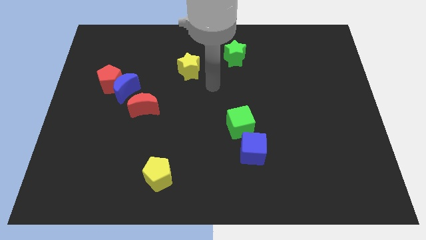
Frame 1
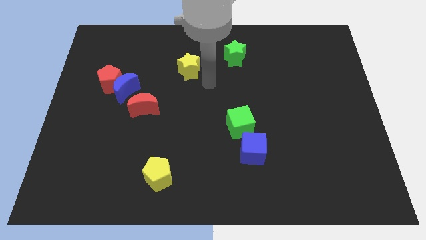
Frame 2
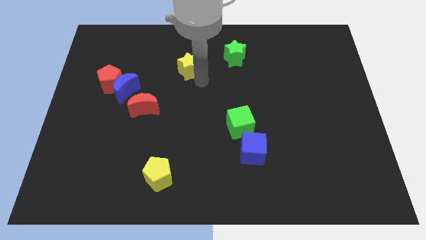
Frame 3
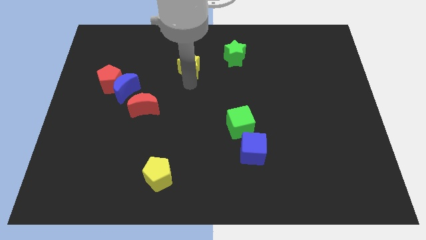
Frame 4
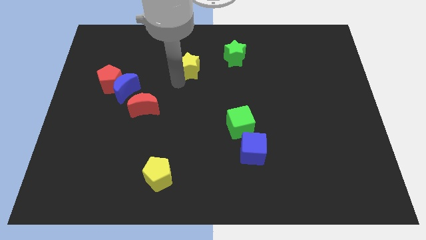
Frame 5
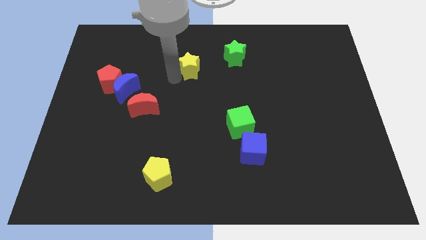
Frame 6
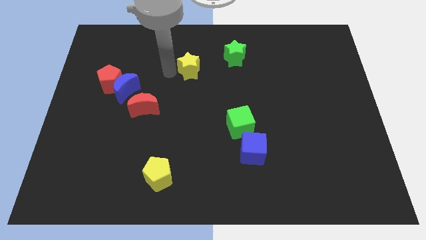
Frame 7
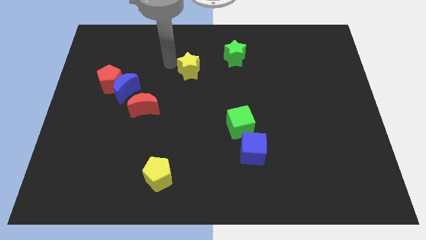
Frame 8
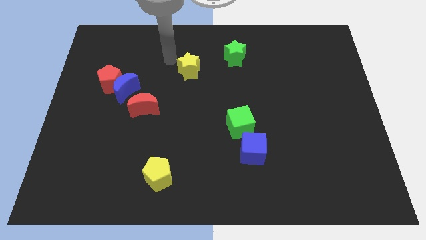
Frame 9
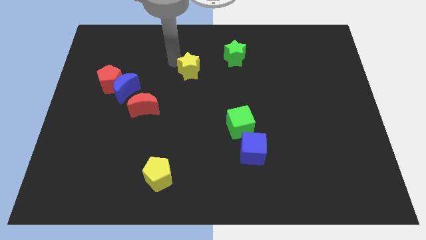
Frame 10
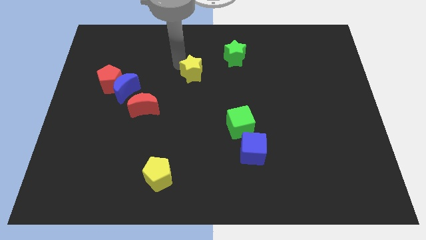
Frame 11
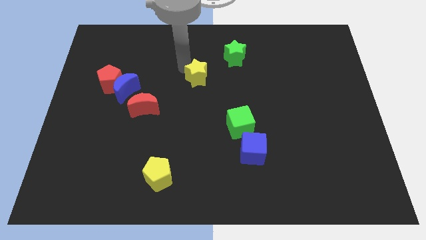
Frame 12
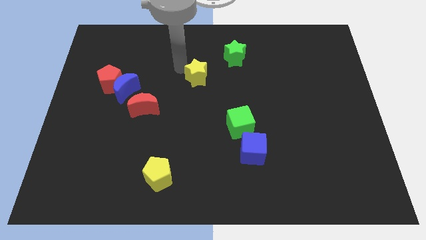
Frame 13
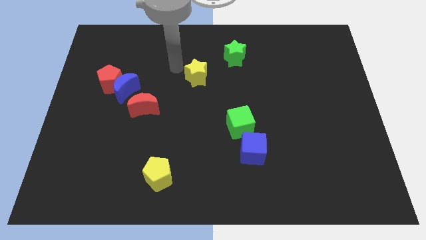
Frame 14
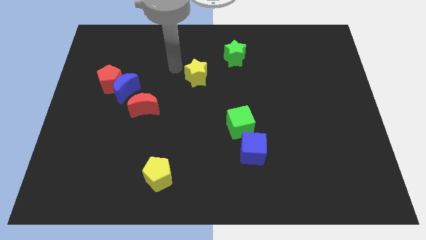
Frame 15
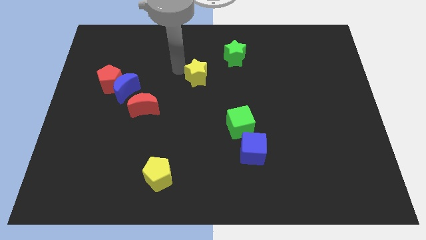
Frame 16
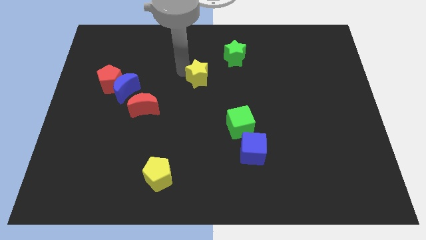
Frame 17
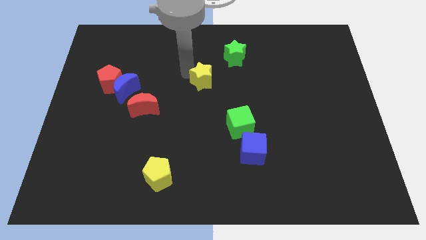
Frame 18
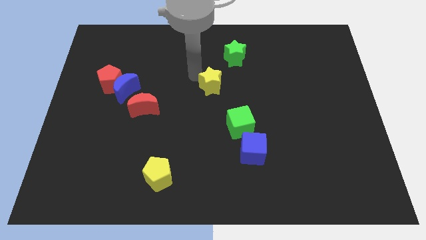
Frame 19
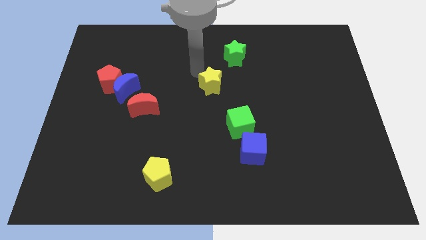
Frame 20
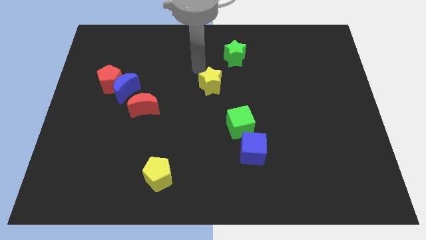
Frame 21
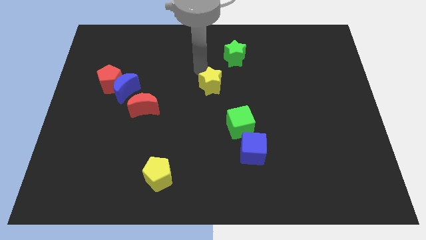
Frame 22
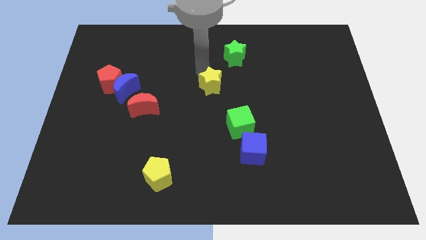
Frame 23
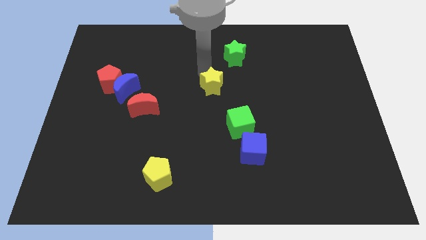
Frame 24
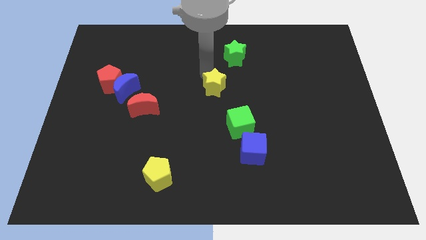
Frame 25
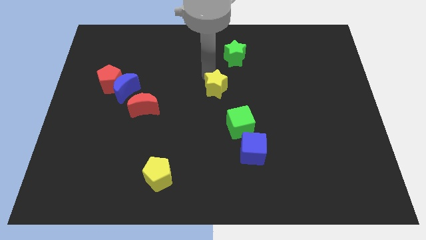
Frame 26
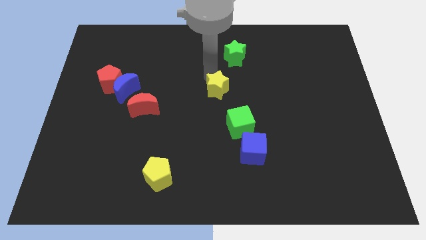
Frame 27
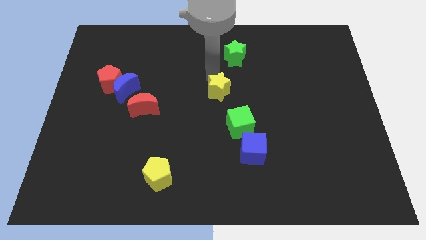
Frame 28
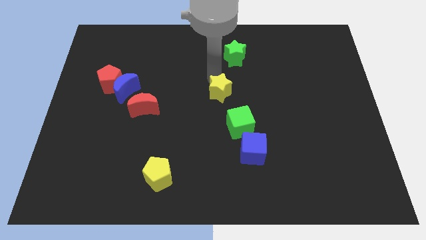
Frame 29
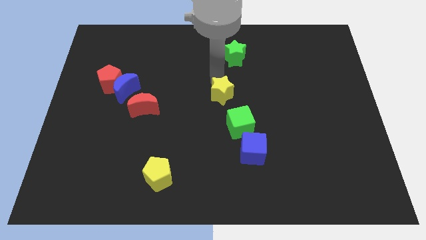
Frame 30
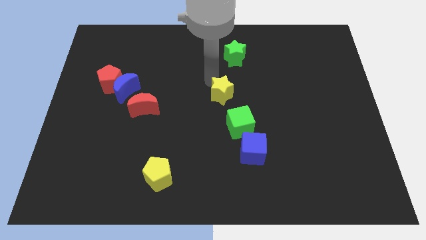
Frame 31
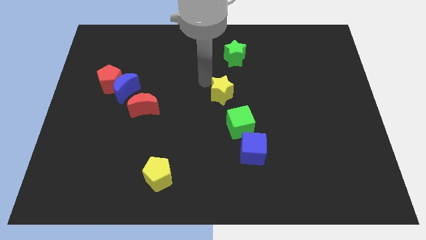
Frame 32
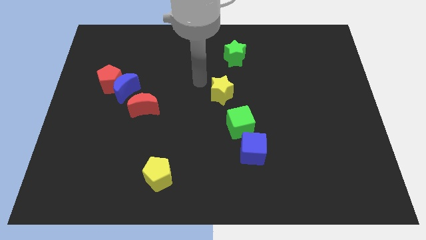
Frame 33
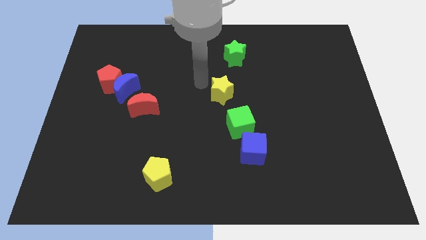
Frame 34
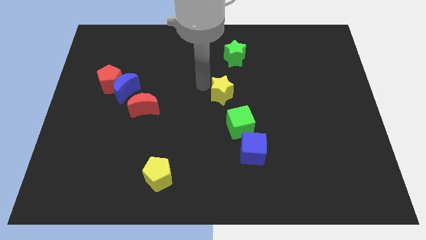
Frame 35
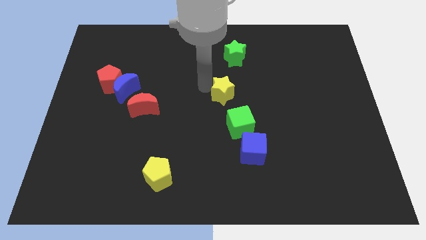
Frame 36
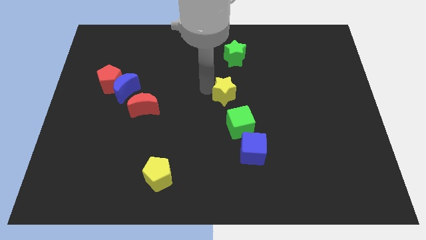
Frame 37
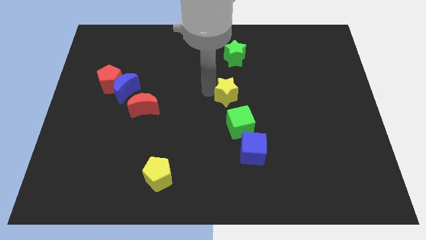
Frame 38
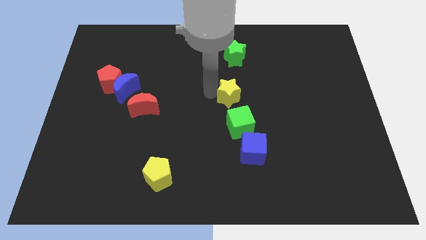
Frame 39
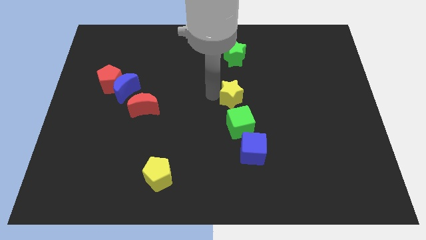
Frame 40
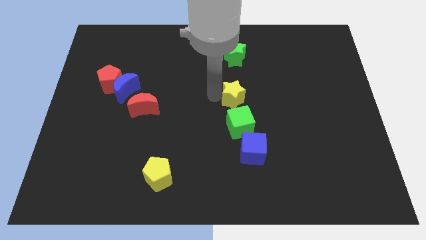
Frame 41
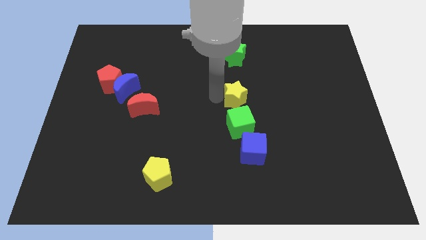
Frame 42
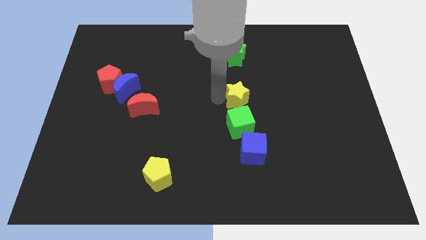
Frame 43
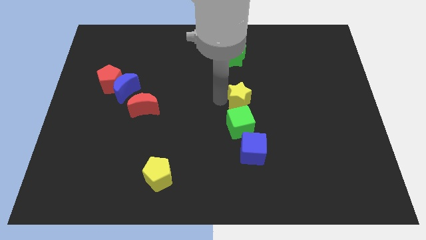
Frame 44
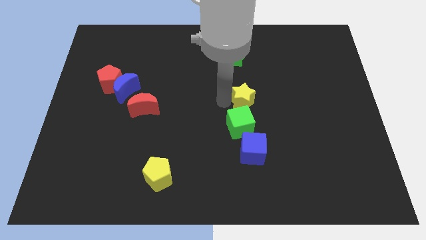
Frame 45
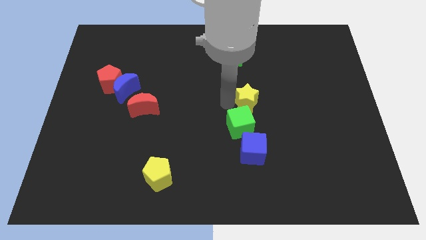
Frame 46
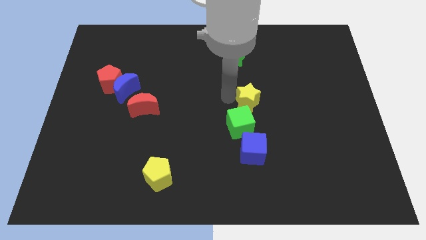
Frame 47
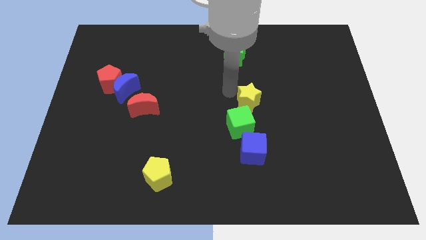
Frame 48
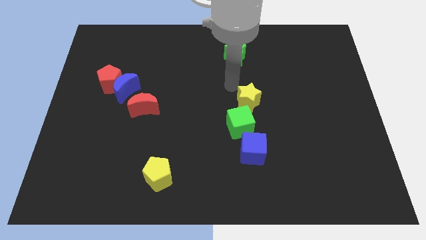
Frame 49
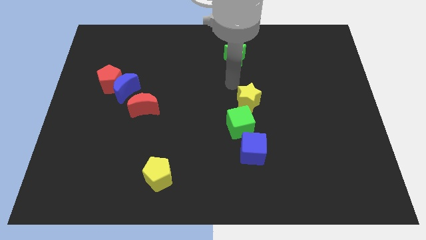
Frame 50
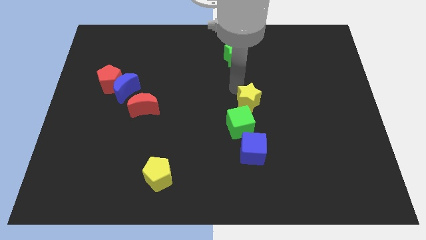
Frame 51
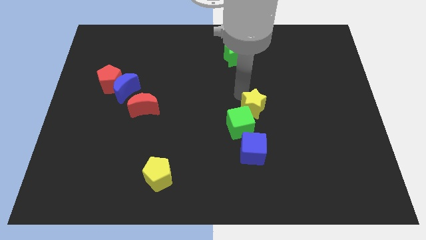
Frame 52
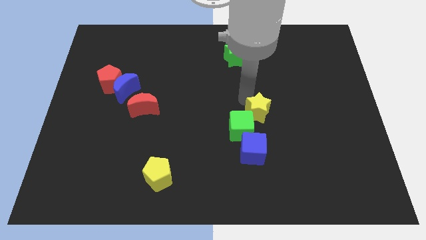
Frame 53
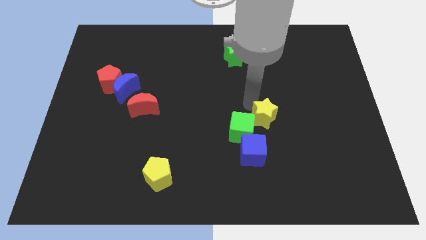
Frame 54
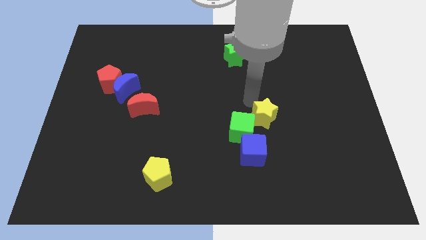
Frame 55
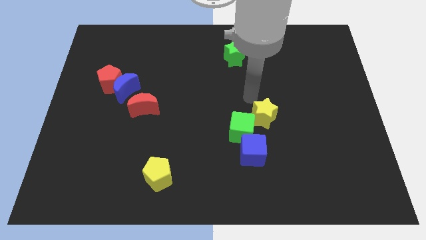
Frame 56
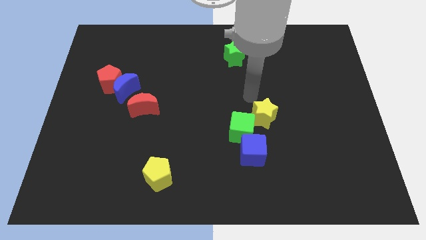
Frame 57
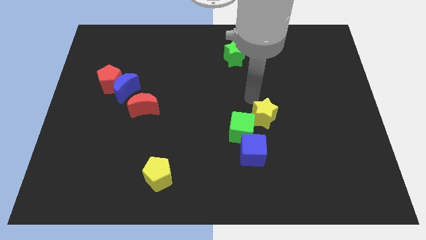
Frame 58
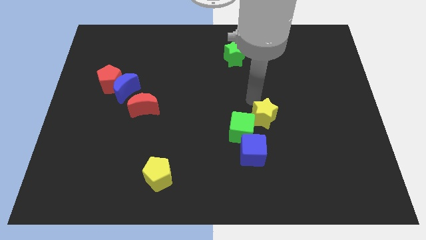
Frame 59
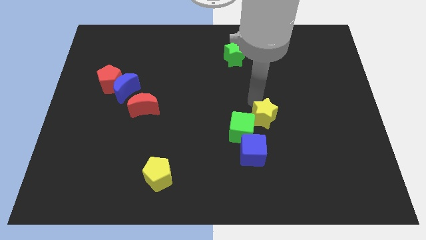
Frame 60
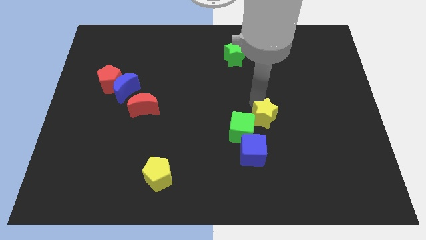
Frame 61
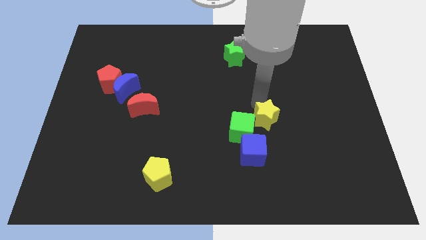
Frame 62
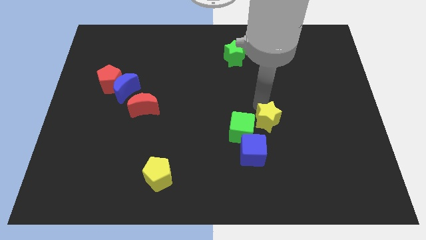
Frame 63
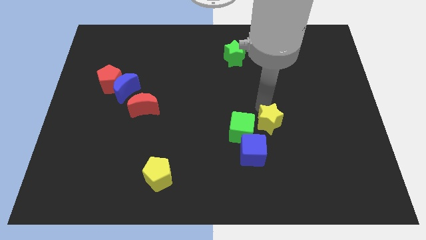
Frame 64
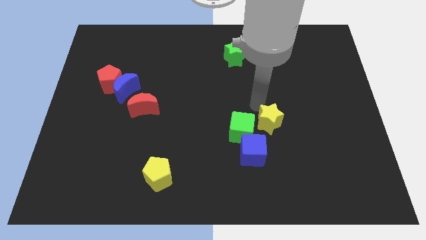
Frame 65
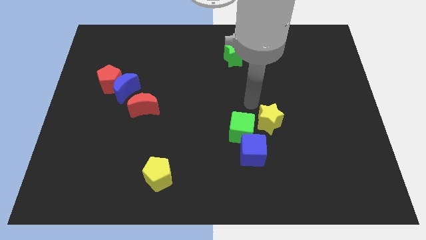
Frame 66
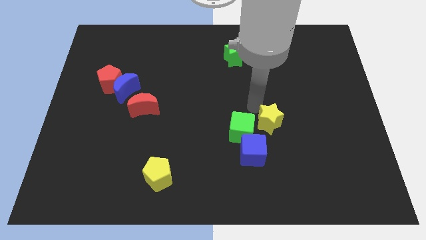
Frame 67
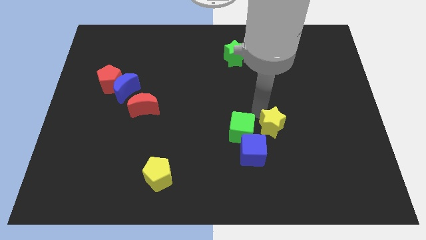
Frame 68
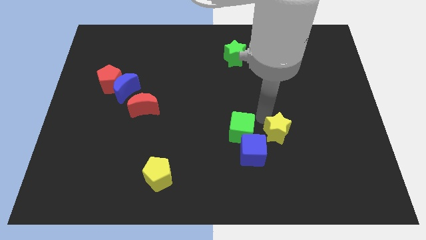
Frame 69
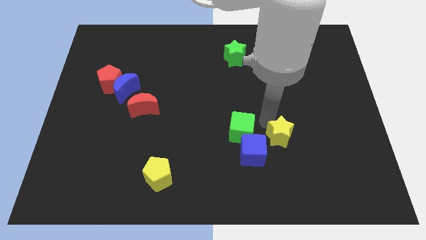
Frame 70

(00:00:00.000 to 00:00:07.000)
move the yellow star to the right side of the blue cube

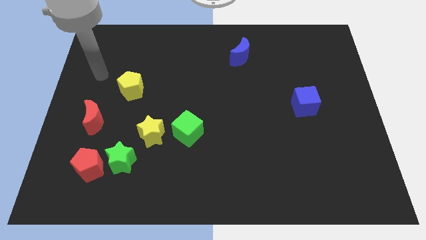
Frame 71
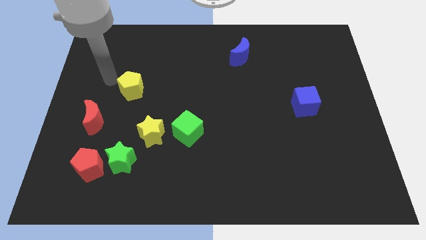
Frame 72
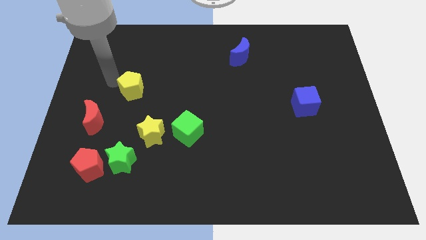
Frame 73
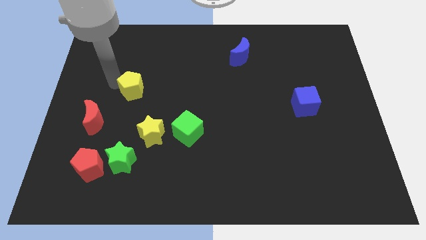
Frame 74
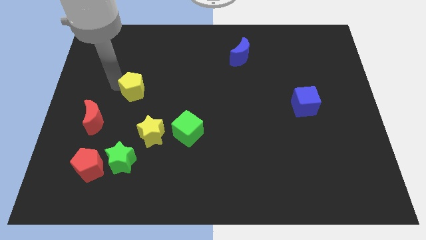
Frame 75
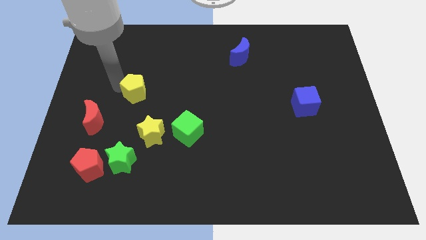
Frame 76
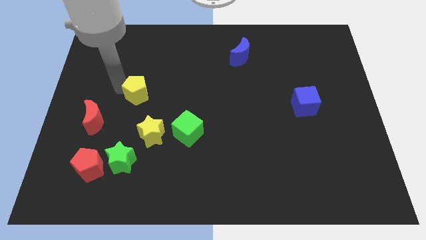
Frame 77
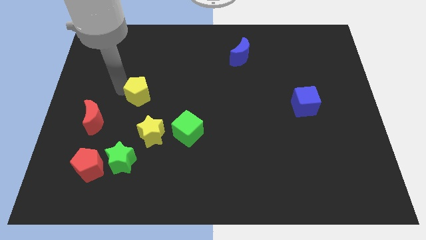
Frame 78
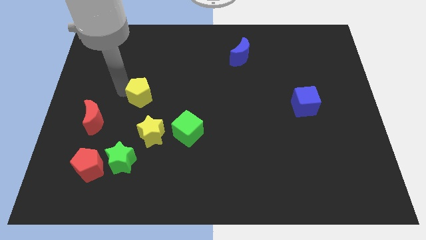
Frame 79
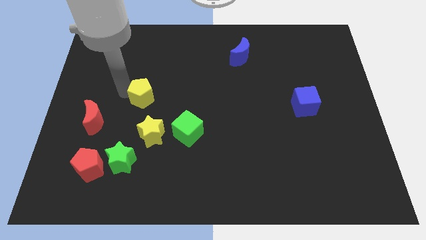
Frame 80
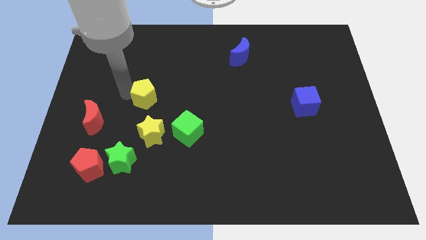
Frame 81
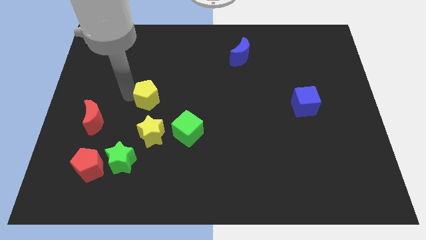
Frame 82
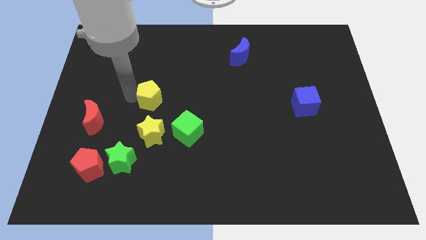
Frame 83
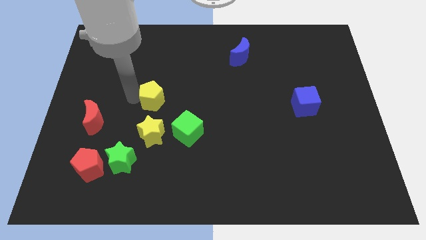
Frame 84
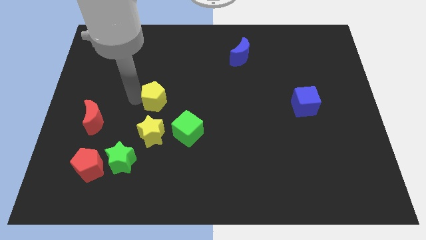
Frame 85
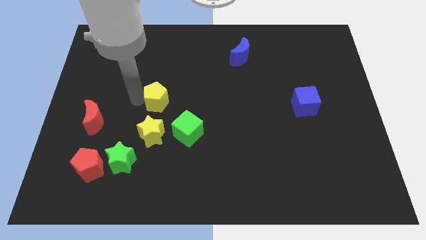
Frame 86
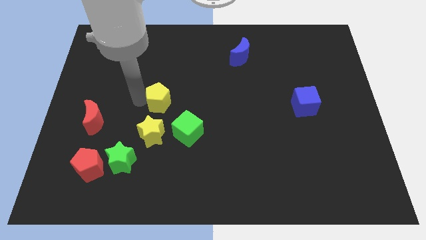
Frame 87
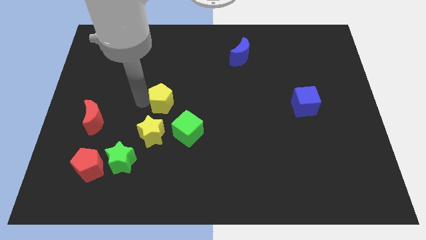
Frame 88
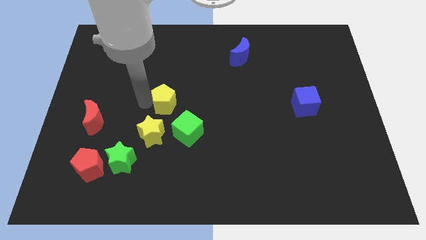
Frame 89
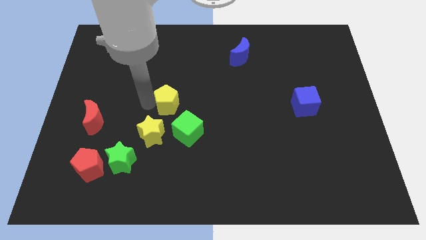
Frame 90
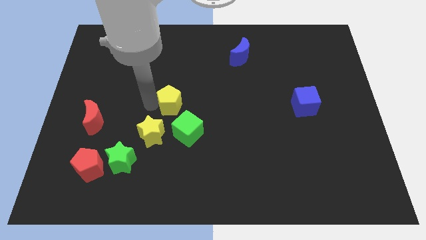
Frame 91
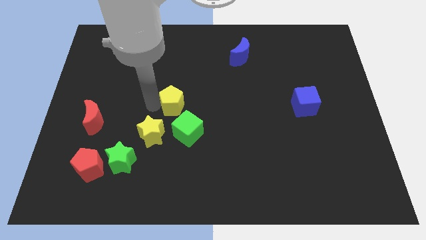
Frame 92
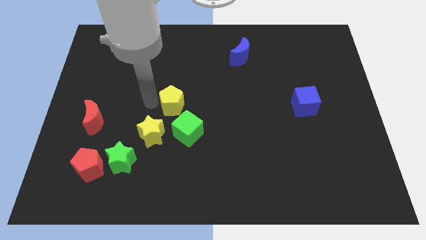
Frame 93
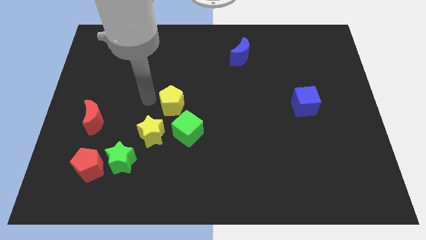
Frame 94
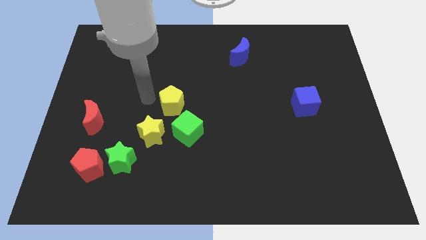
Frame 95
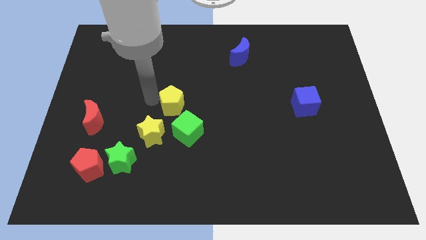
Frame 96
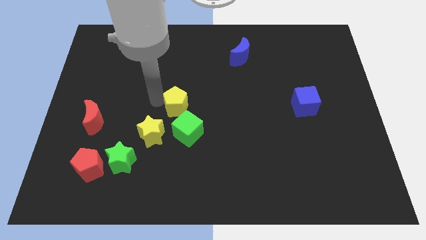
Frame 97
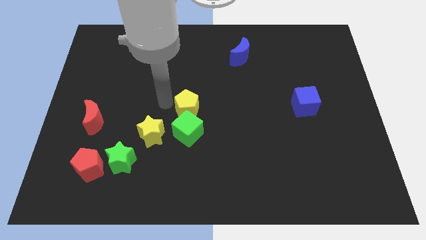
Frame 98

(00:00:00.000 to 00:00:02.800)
slide the yellow pentagon diagonally up and to the right of the green cube
